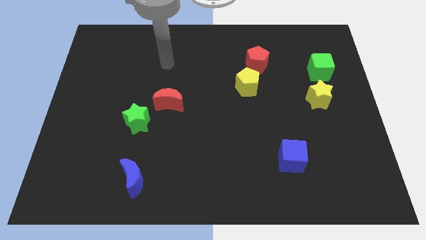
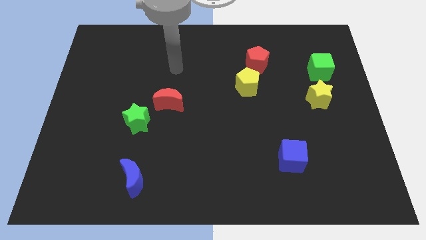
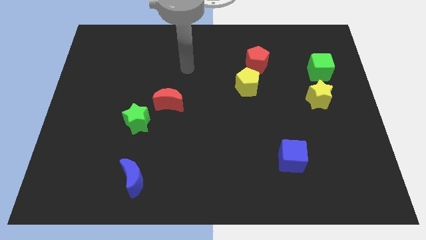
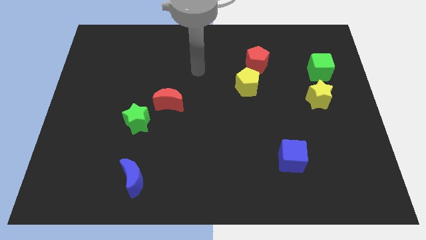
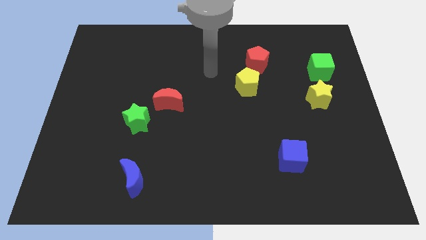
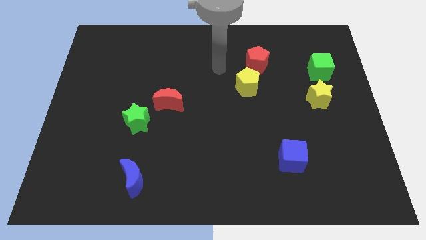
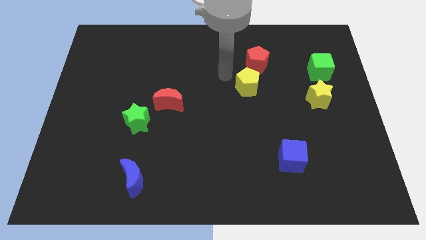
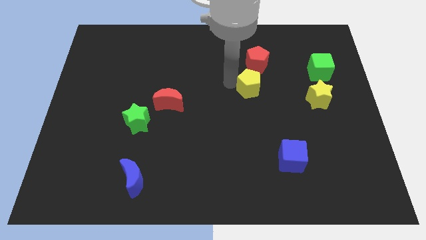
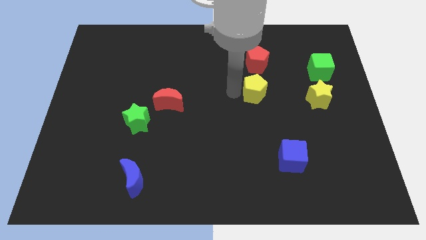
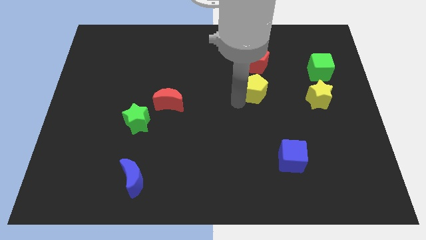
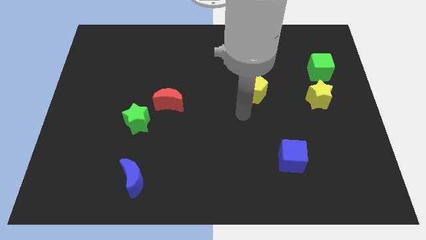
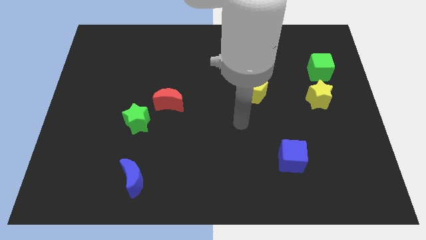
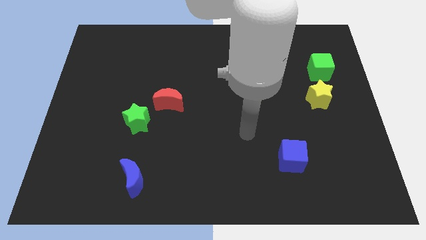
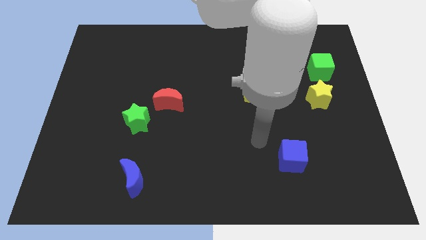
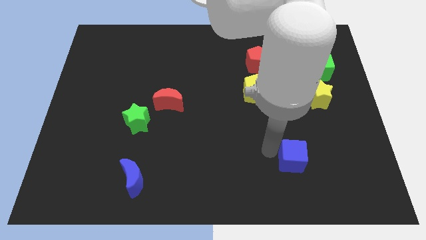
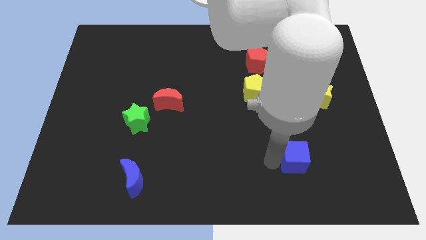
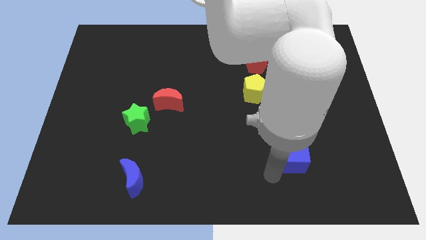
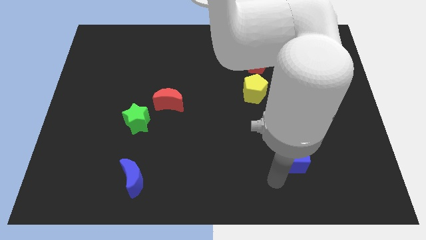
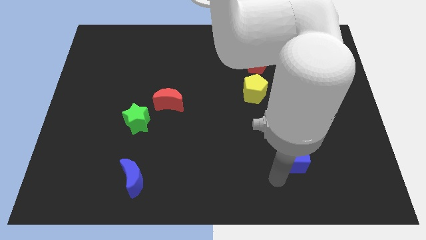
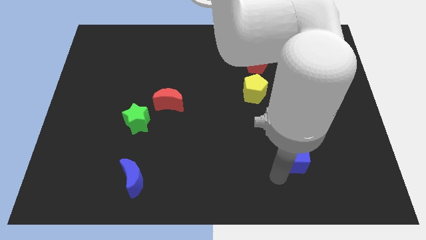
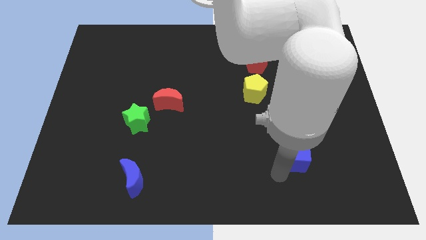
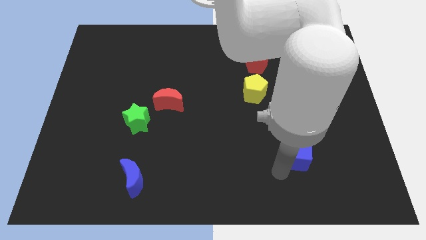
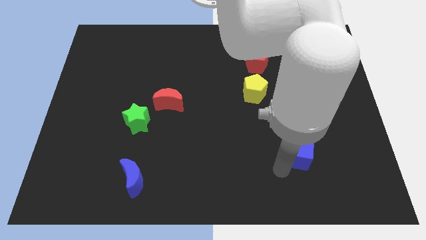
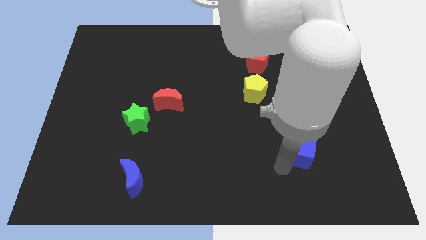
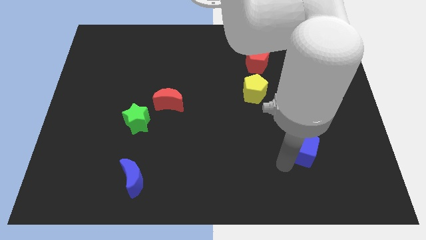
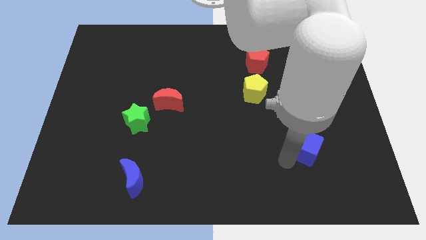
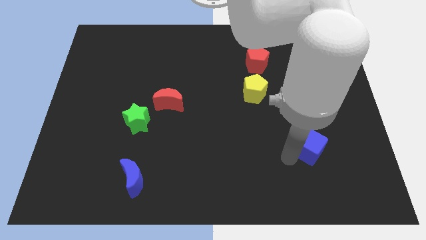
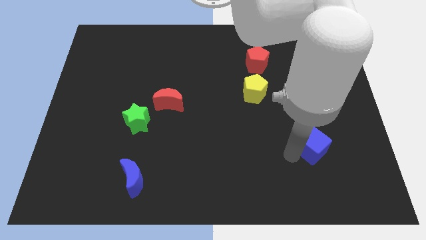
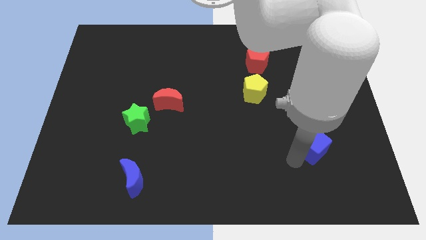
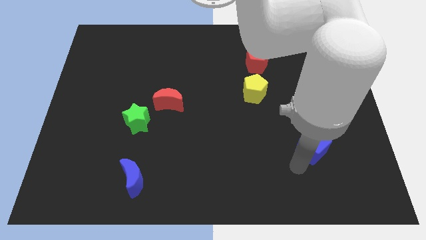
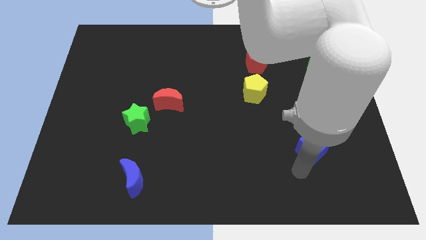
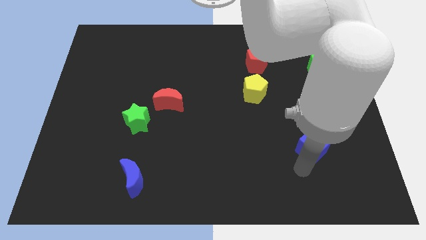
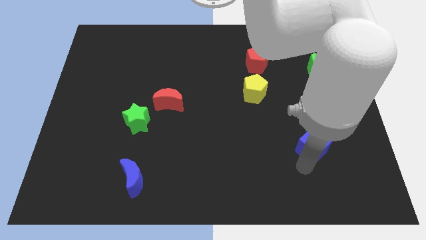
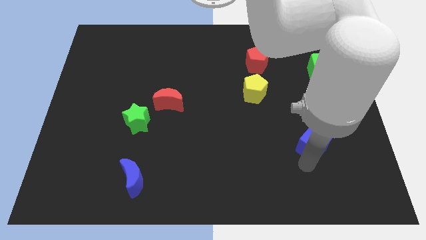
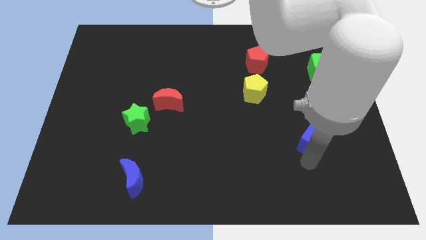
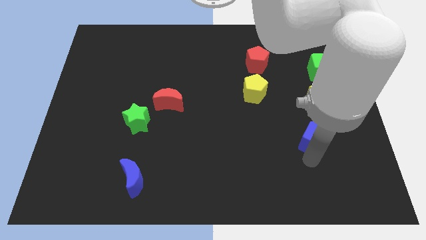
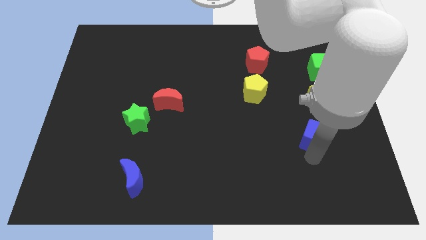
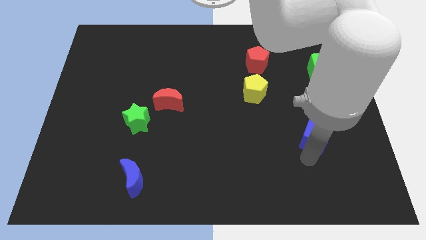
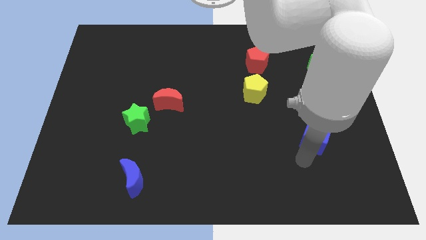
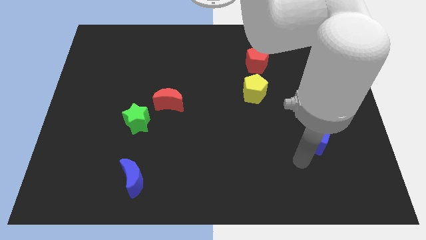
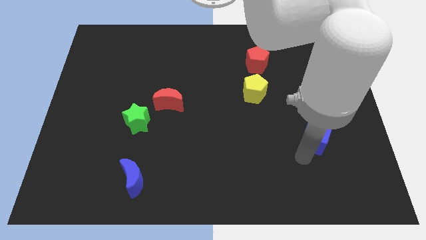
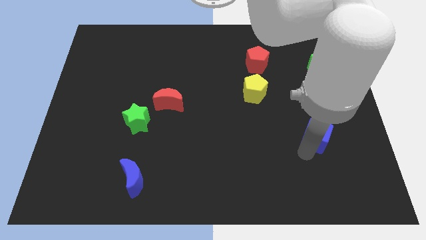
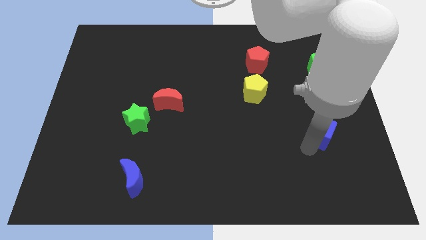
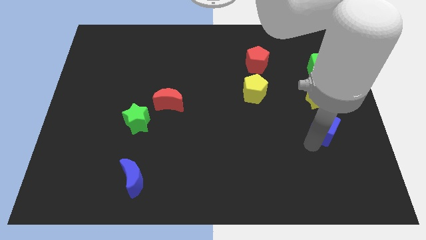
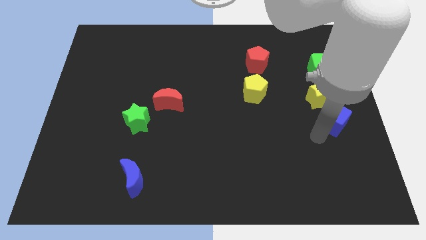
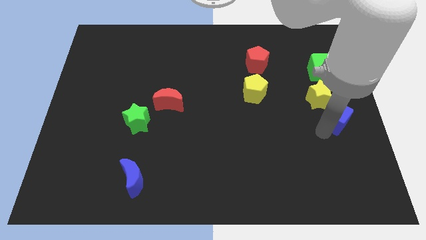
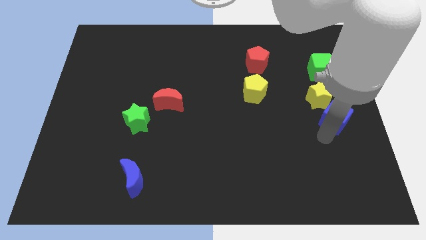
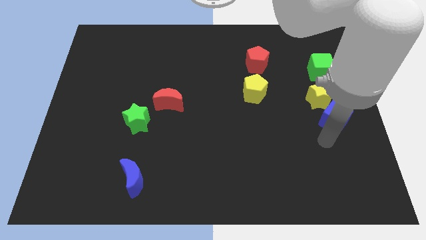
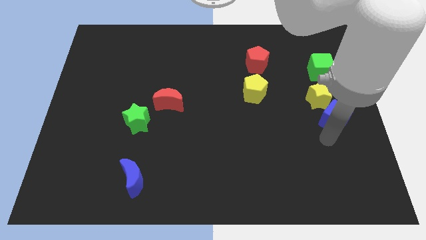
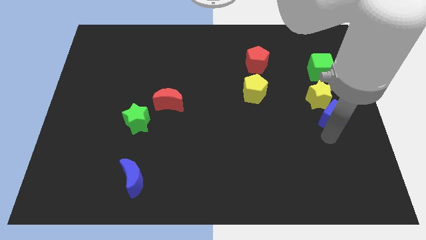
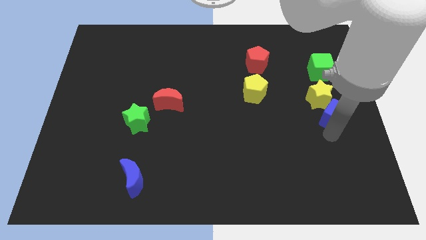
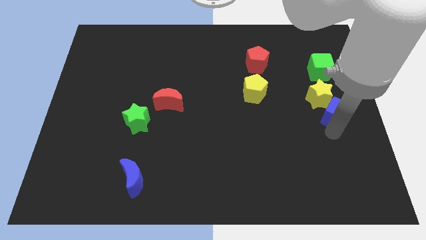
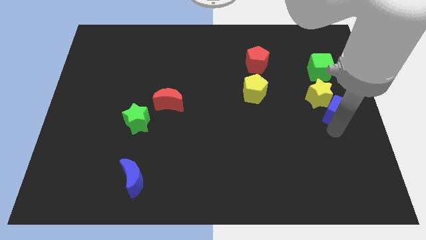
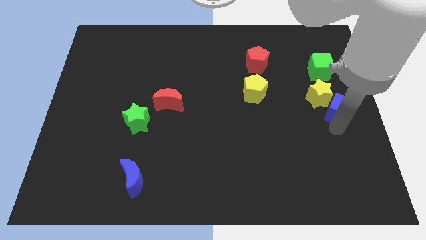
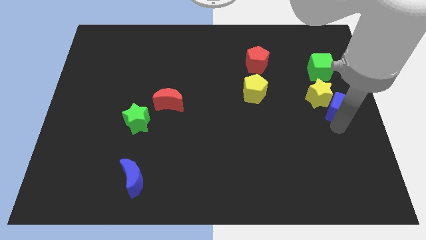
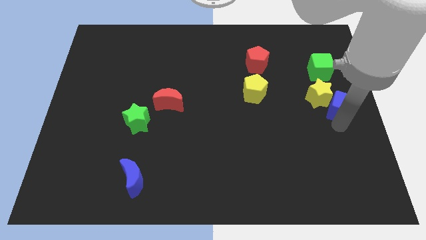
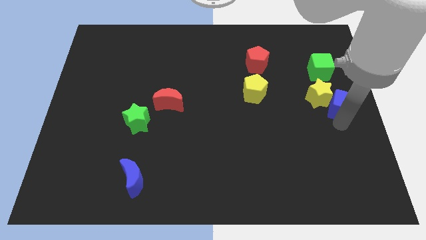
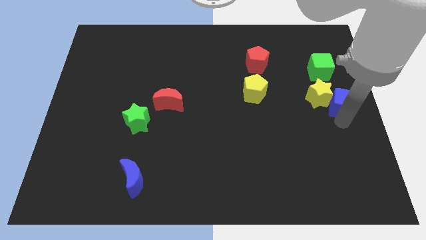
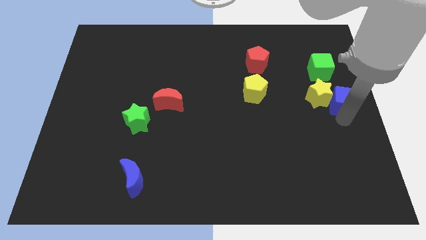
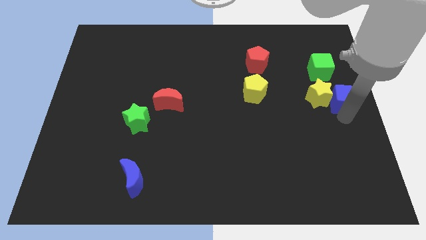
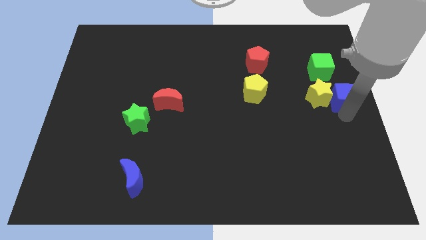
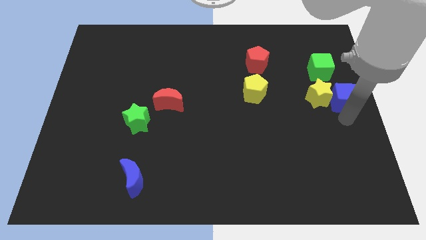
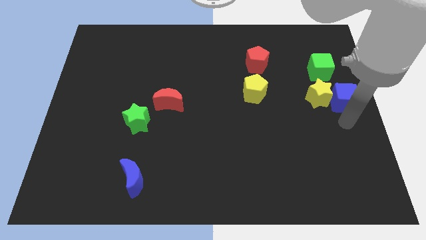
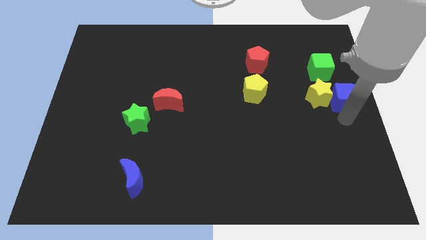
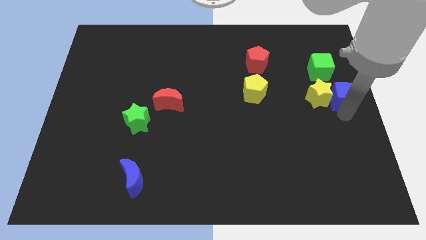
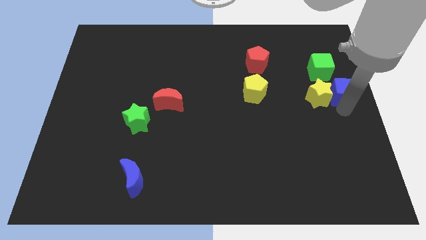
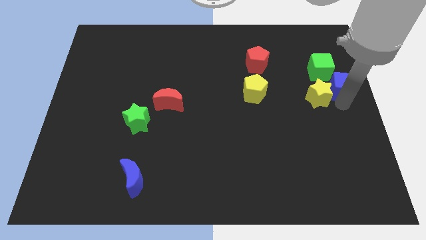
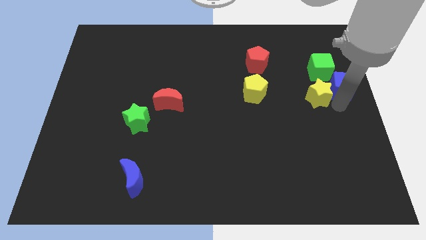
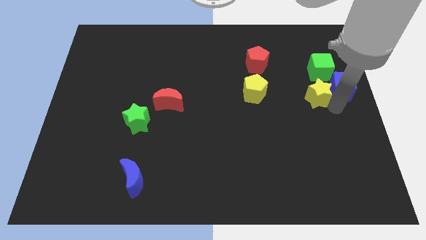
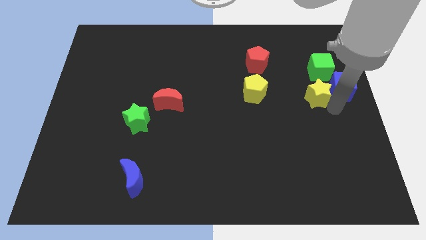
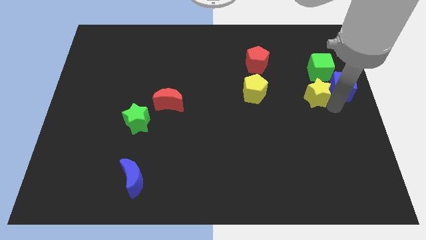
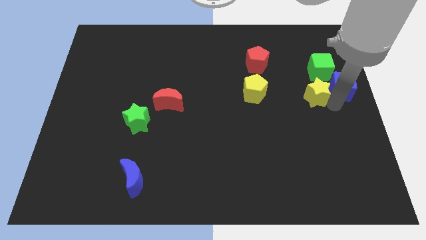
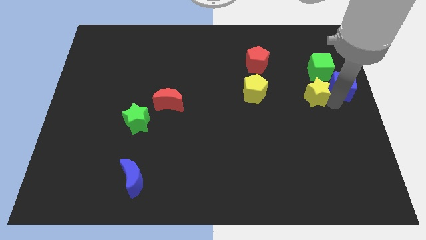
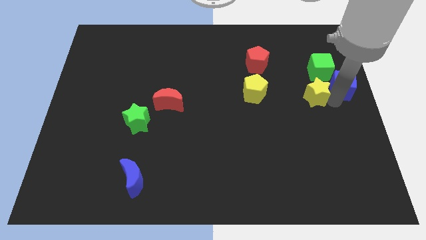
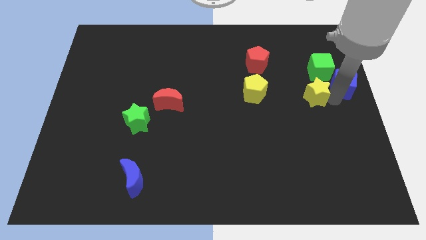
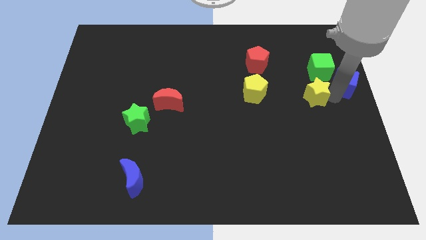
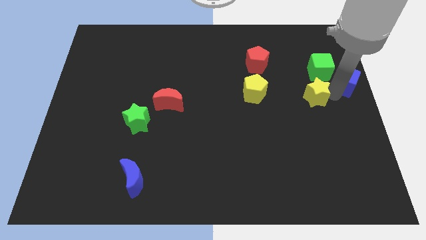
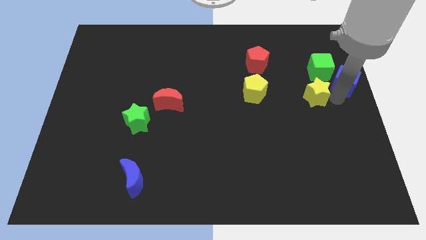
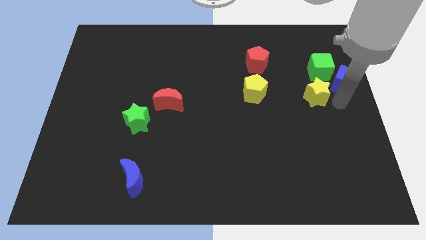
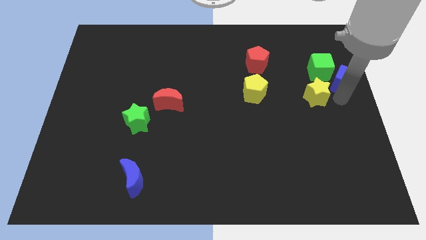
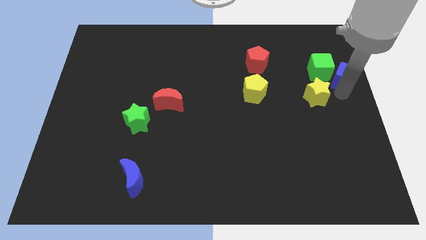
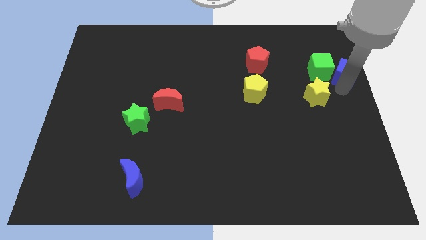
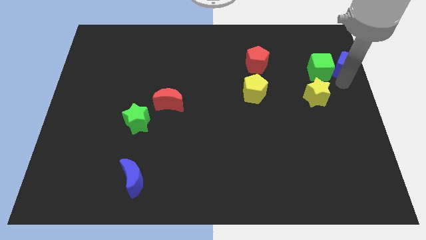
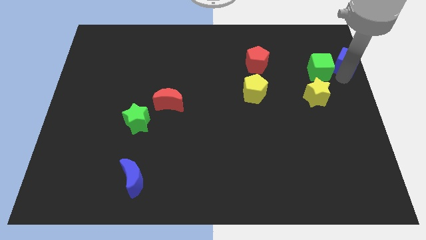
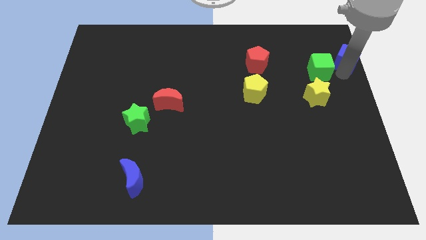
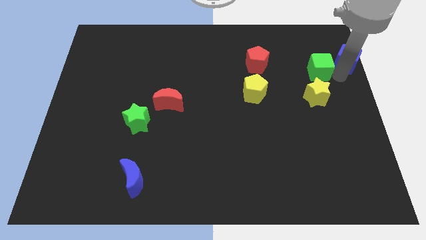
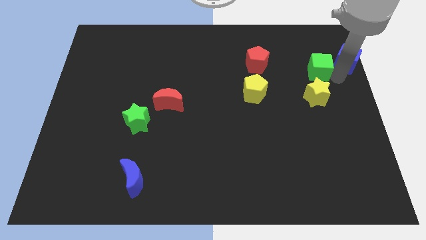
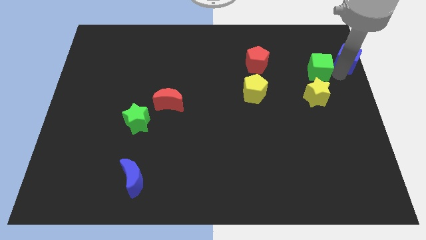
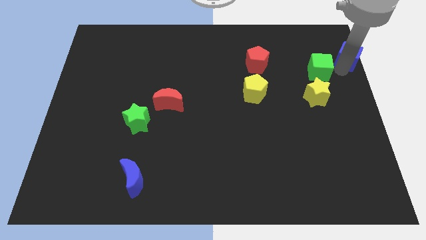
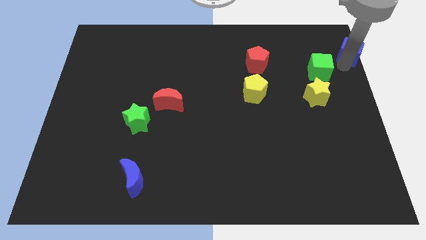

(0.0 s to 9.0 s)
move the blue cube to the top right
